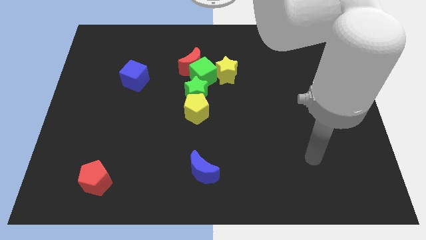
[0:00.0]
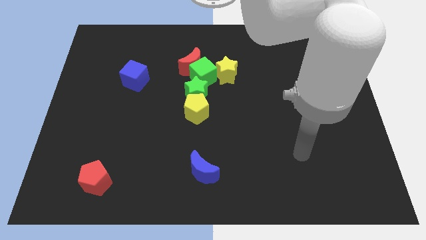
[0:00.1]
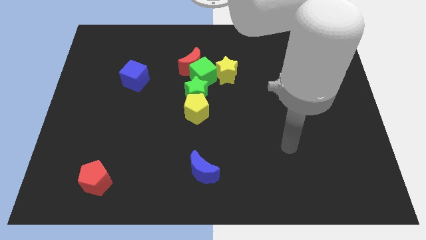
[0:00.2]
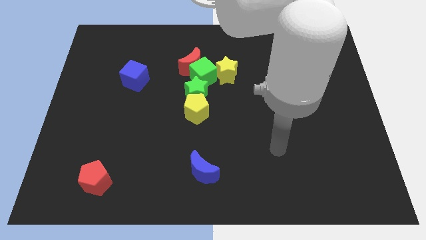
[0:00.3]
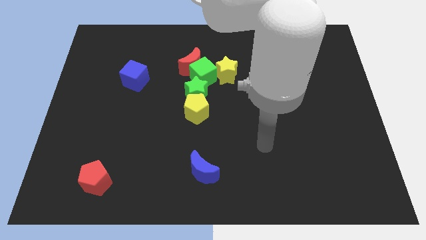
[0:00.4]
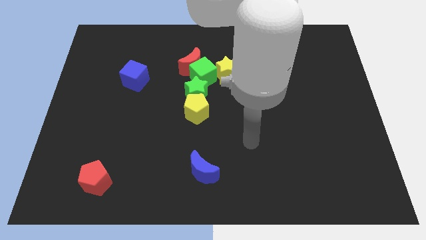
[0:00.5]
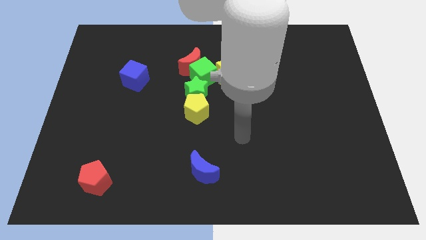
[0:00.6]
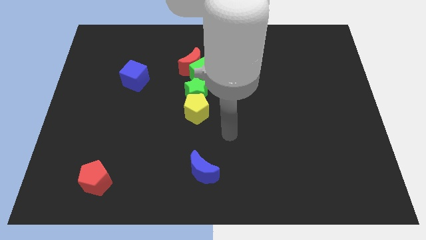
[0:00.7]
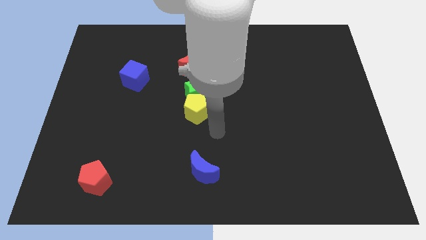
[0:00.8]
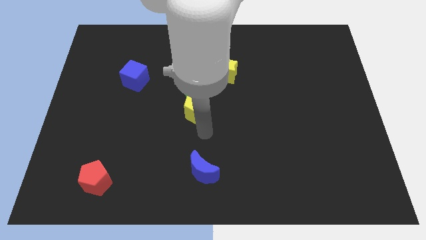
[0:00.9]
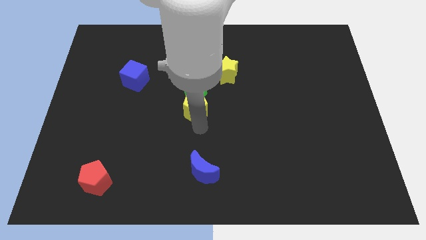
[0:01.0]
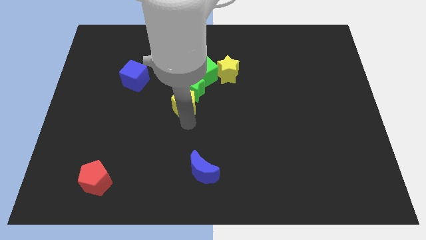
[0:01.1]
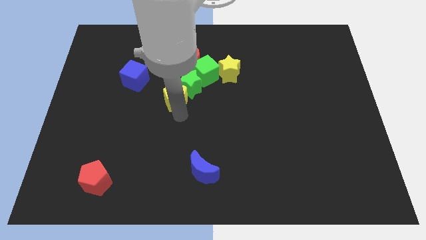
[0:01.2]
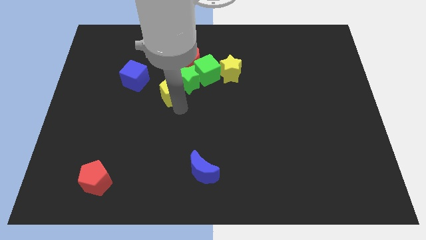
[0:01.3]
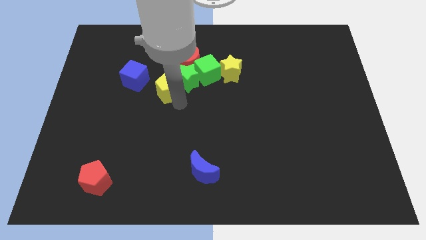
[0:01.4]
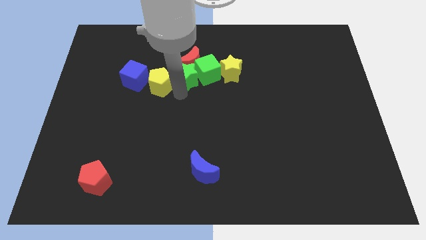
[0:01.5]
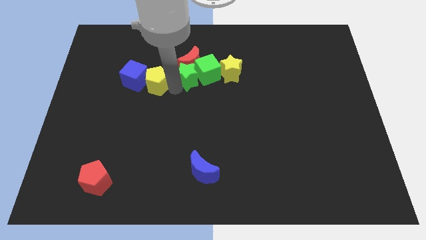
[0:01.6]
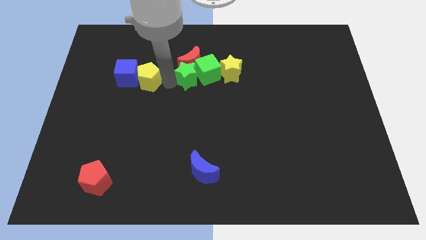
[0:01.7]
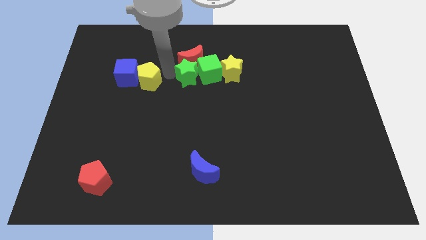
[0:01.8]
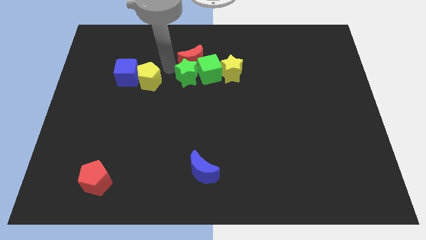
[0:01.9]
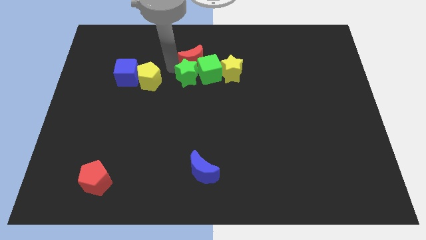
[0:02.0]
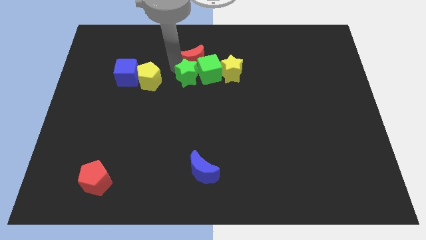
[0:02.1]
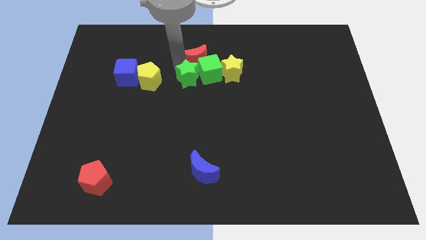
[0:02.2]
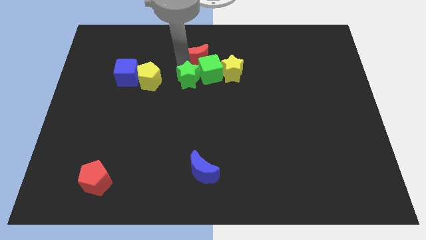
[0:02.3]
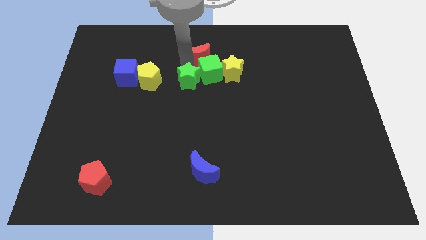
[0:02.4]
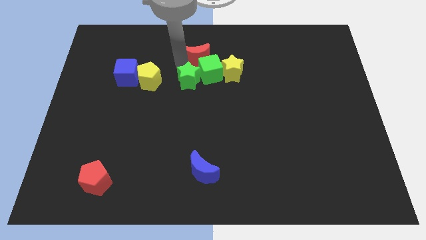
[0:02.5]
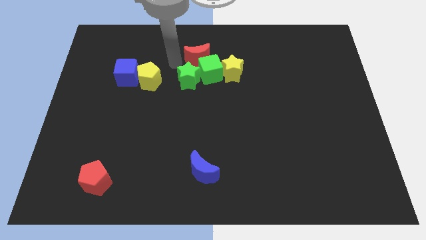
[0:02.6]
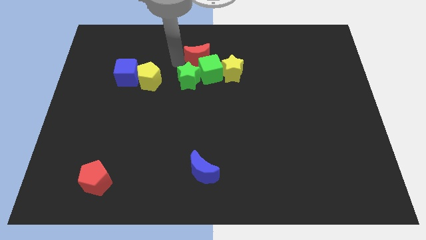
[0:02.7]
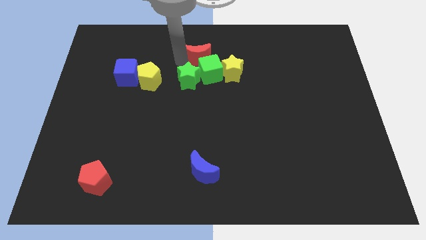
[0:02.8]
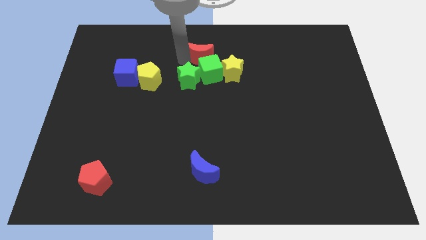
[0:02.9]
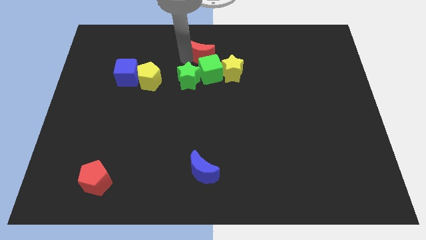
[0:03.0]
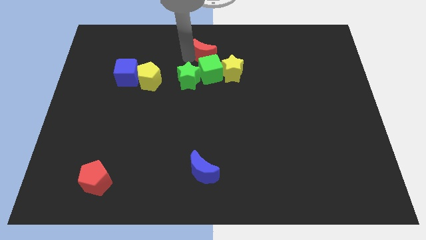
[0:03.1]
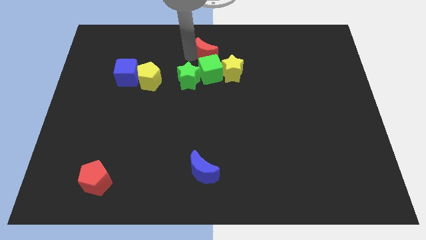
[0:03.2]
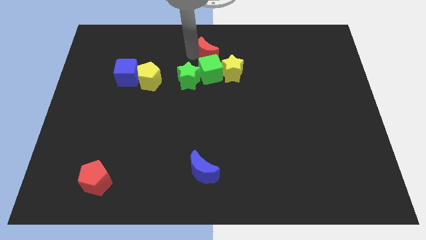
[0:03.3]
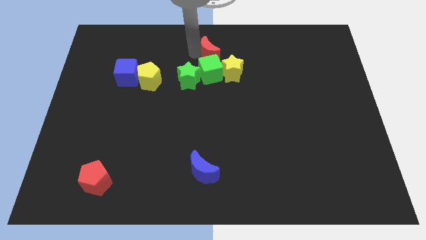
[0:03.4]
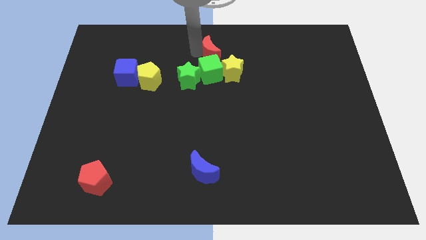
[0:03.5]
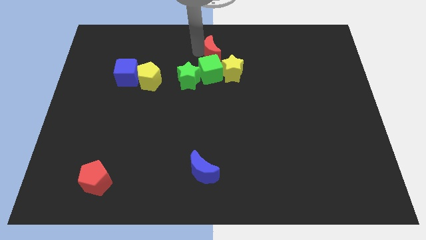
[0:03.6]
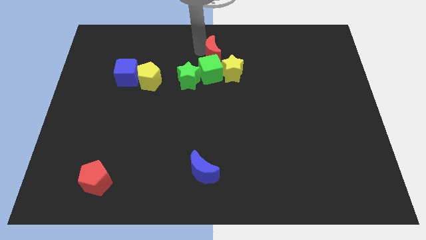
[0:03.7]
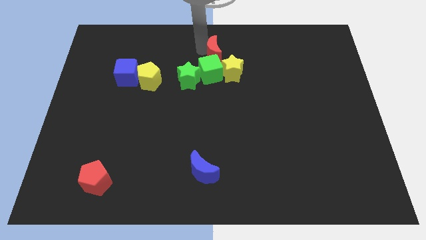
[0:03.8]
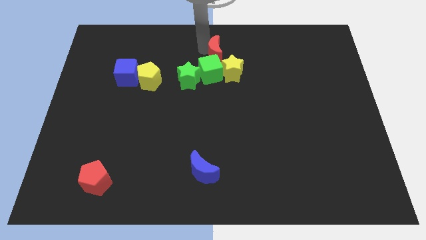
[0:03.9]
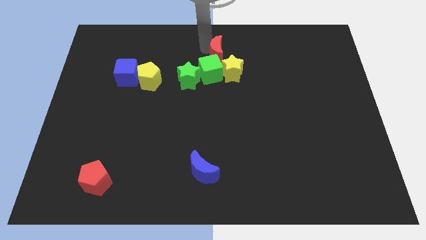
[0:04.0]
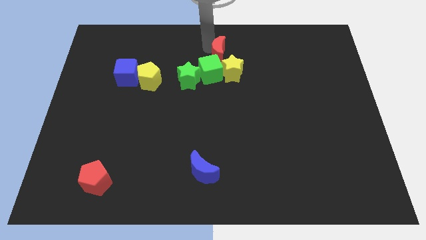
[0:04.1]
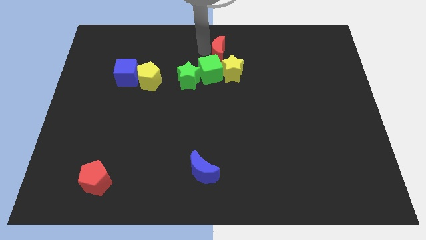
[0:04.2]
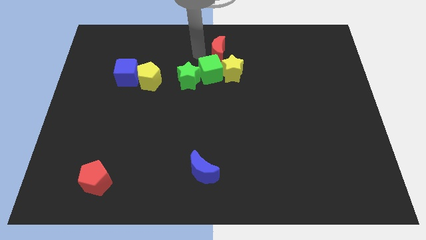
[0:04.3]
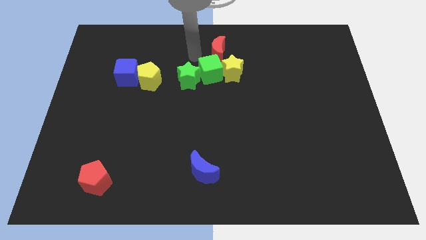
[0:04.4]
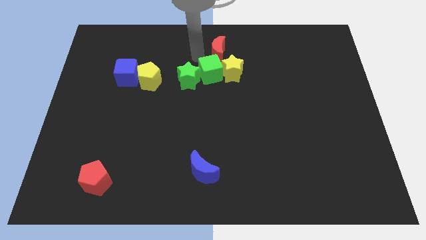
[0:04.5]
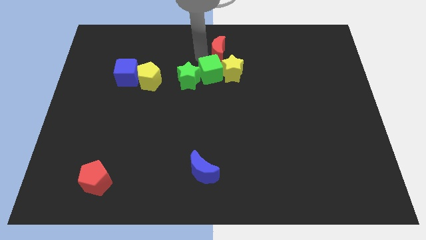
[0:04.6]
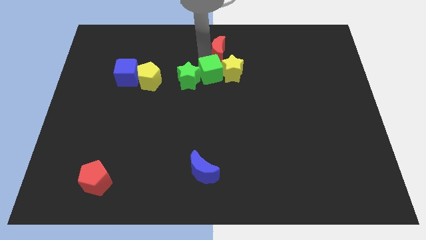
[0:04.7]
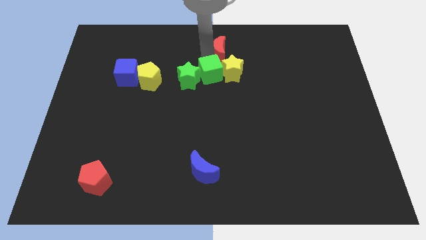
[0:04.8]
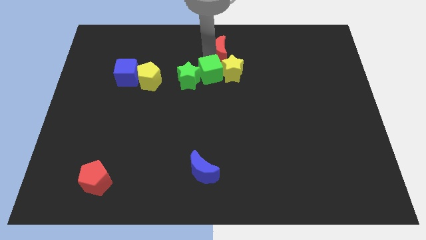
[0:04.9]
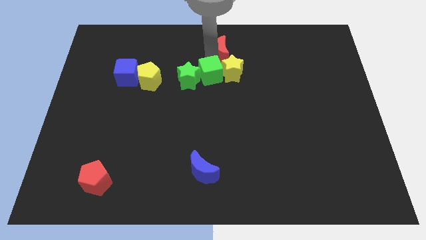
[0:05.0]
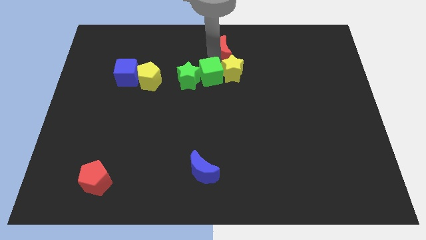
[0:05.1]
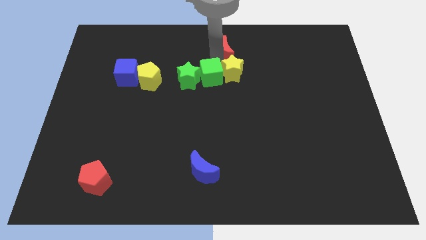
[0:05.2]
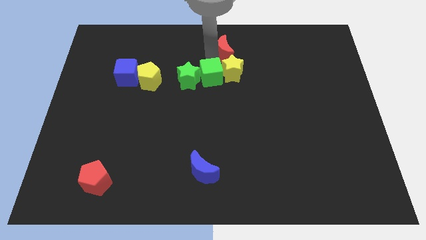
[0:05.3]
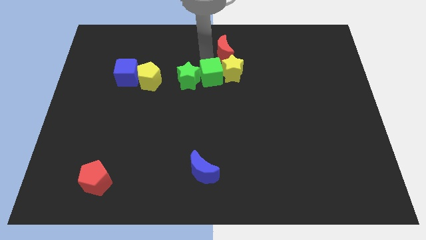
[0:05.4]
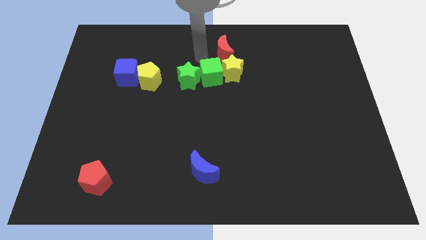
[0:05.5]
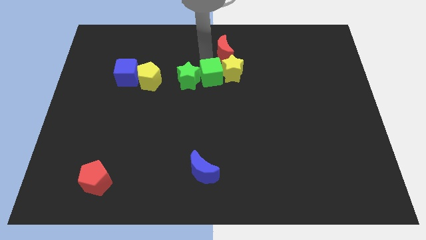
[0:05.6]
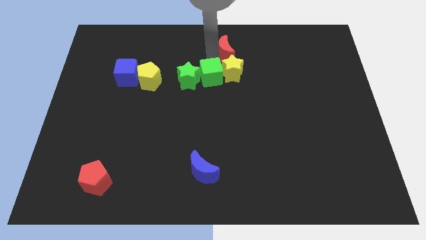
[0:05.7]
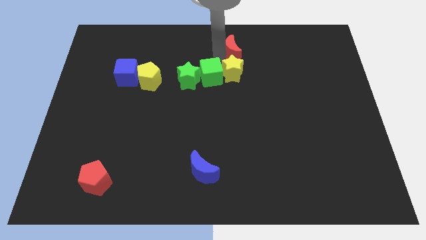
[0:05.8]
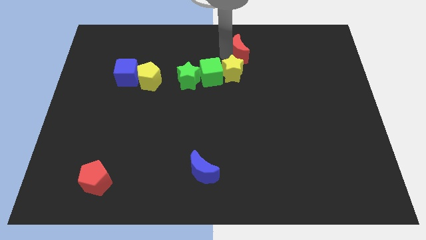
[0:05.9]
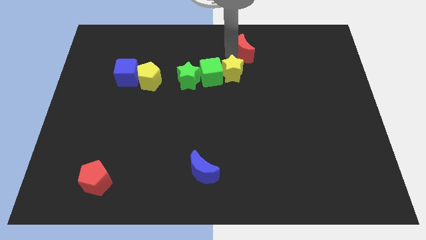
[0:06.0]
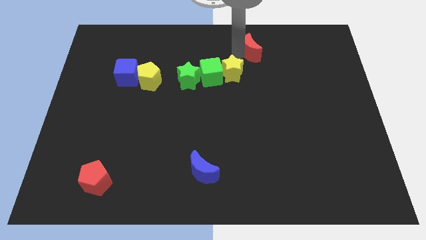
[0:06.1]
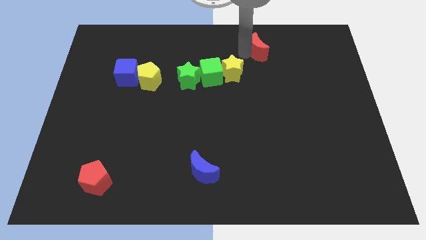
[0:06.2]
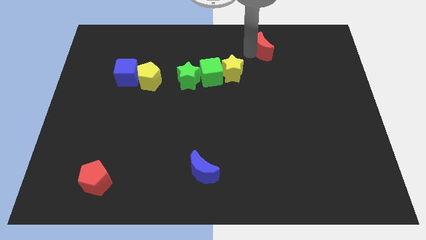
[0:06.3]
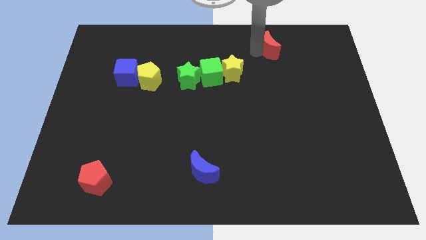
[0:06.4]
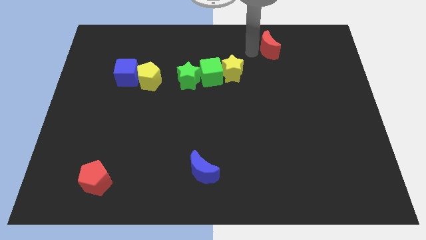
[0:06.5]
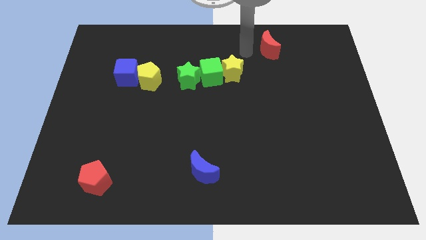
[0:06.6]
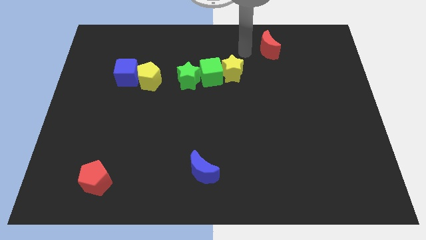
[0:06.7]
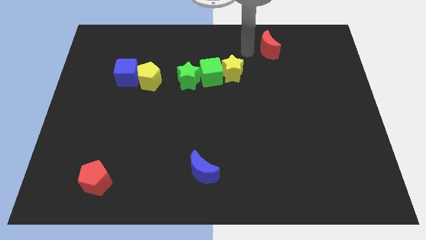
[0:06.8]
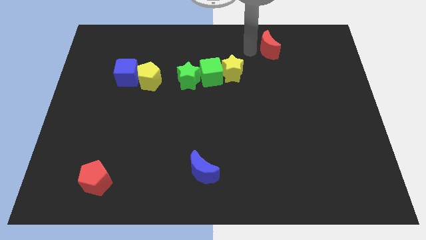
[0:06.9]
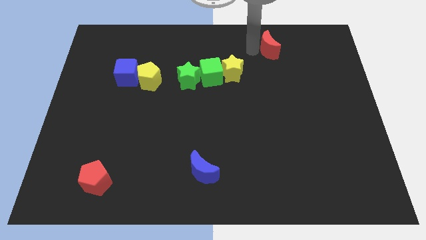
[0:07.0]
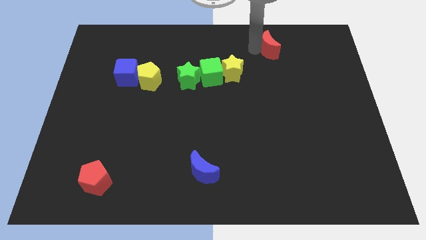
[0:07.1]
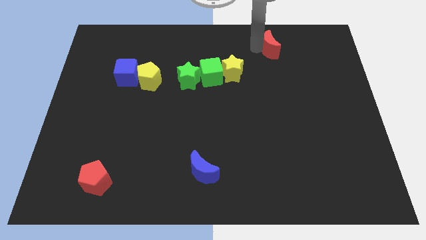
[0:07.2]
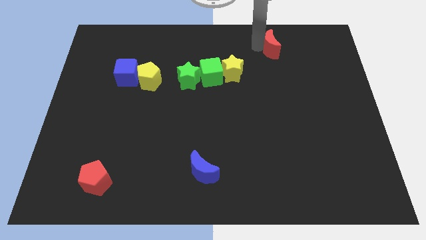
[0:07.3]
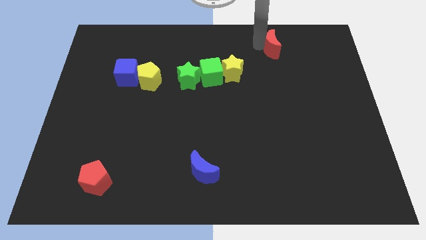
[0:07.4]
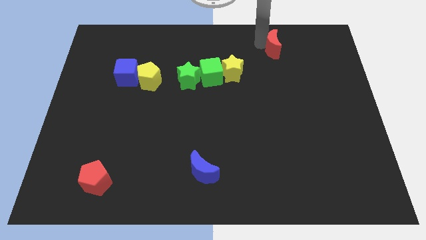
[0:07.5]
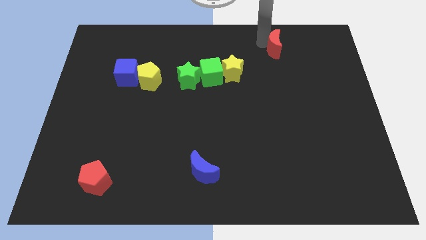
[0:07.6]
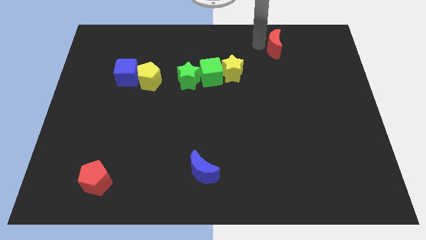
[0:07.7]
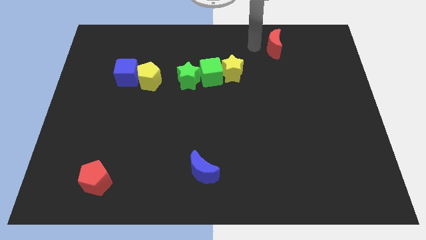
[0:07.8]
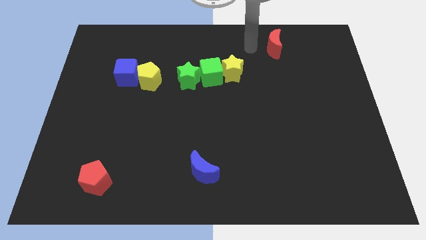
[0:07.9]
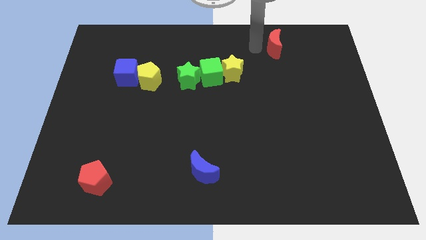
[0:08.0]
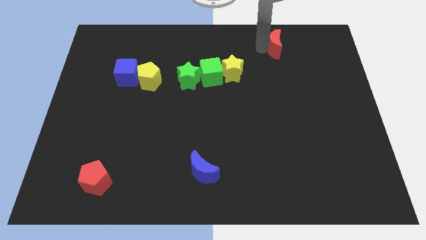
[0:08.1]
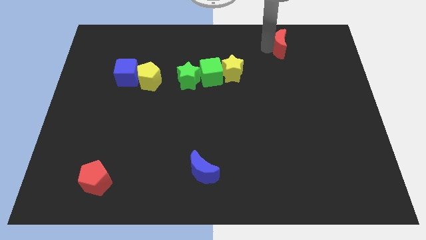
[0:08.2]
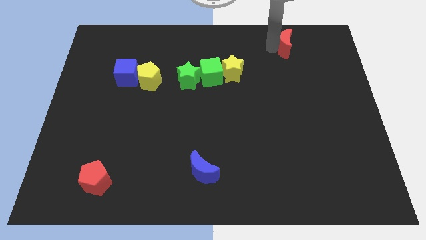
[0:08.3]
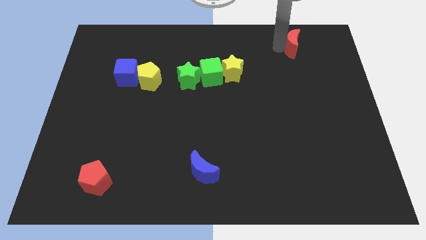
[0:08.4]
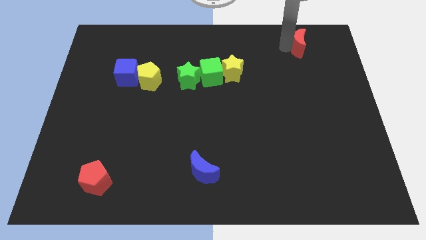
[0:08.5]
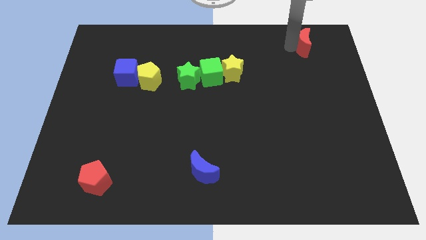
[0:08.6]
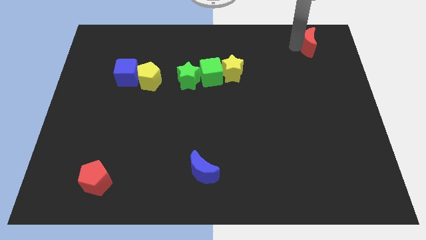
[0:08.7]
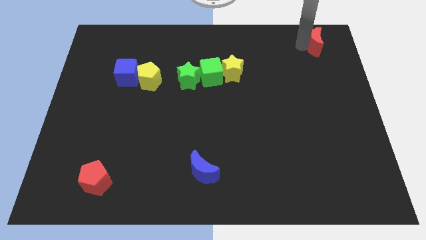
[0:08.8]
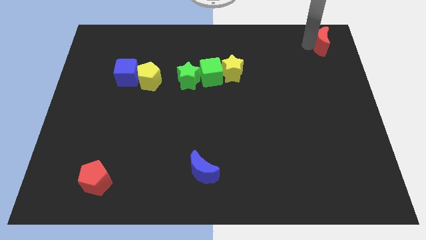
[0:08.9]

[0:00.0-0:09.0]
slide the red moon to the top right corner
